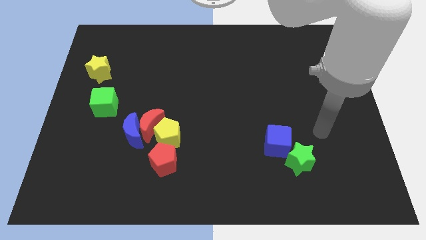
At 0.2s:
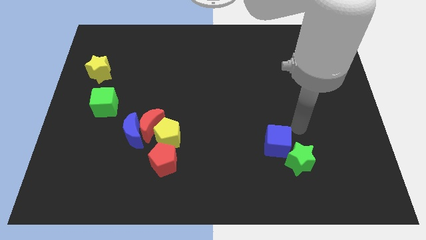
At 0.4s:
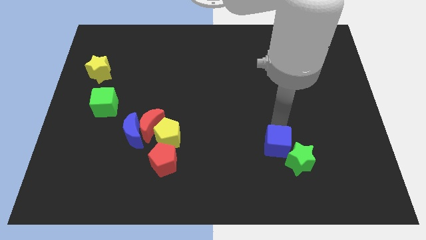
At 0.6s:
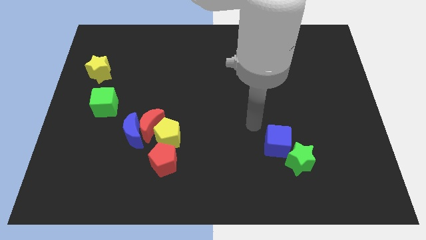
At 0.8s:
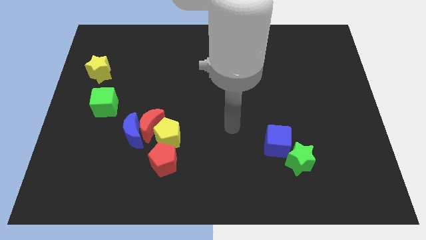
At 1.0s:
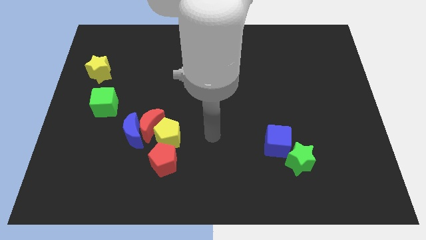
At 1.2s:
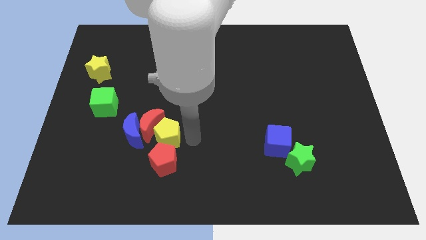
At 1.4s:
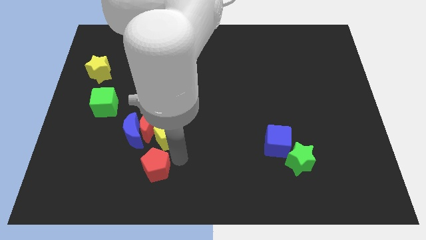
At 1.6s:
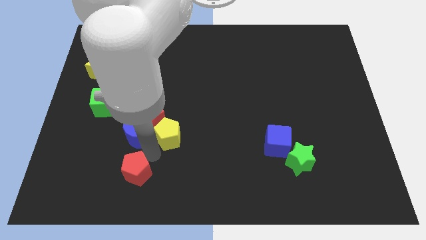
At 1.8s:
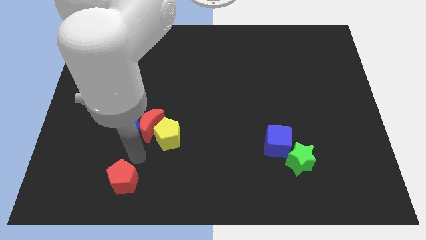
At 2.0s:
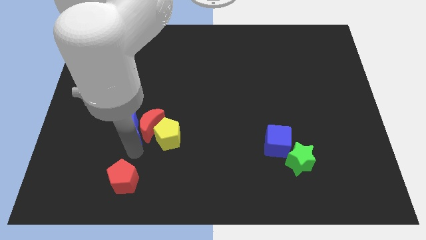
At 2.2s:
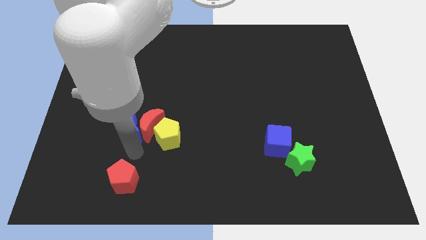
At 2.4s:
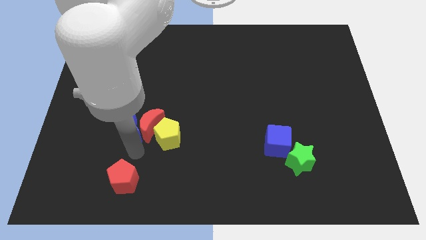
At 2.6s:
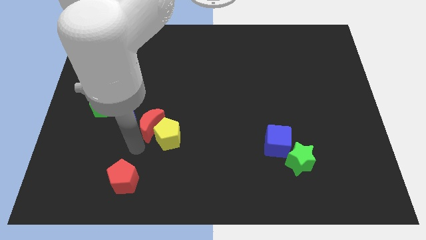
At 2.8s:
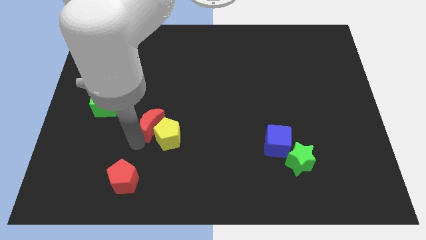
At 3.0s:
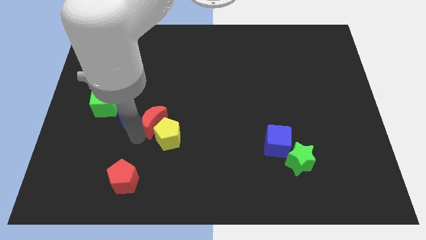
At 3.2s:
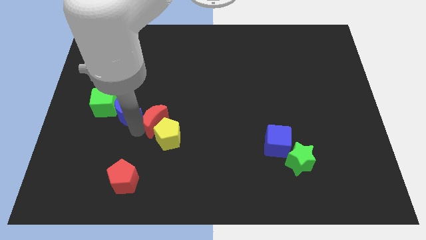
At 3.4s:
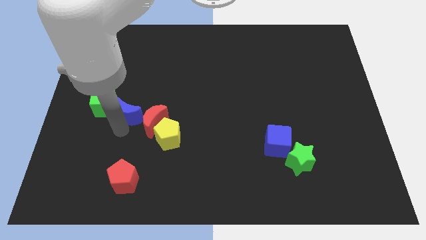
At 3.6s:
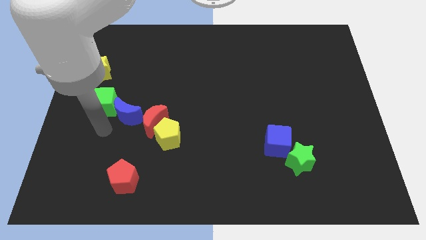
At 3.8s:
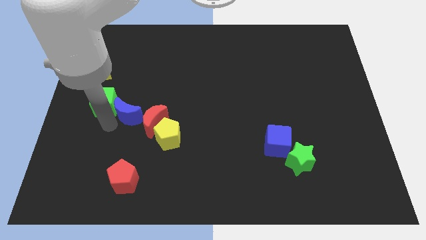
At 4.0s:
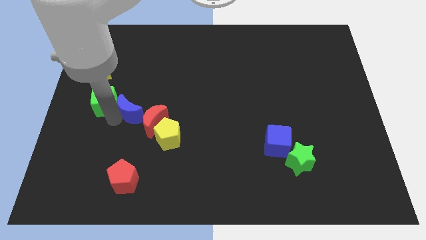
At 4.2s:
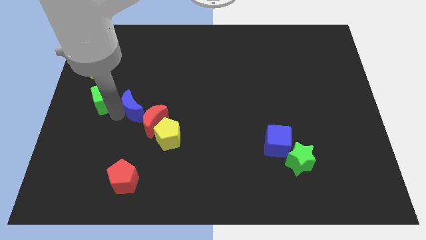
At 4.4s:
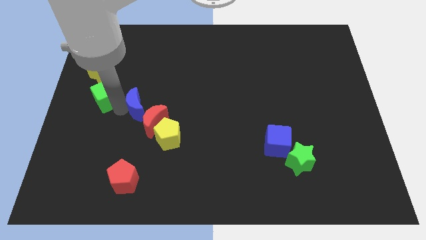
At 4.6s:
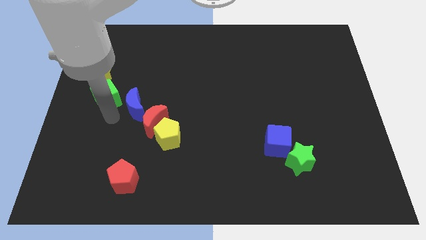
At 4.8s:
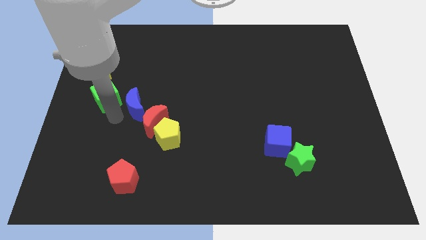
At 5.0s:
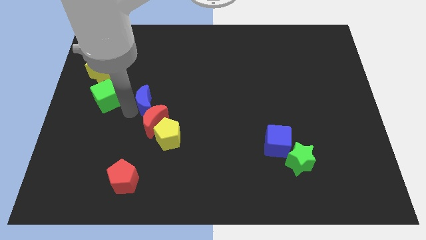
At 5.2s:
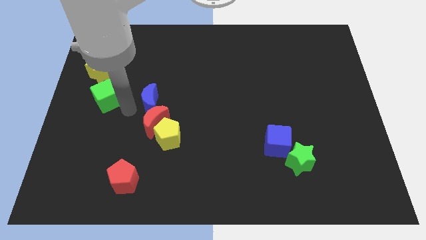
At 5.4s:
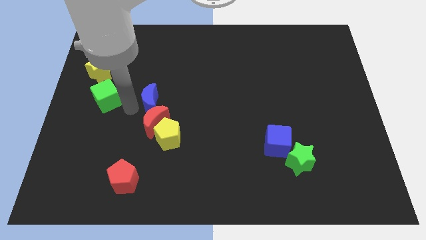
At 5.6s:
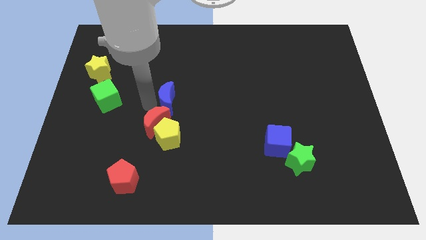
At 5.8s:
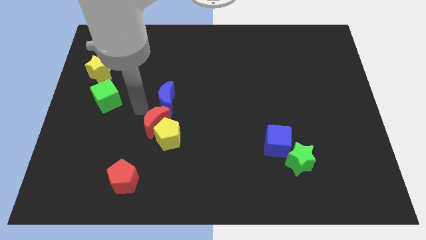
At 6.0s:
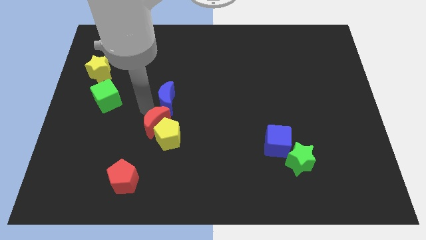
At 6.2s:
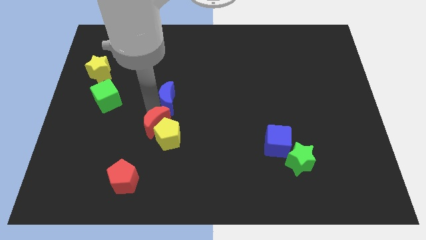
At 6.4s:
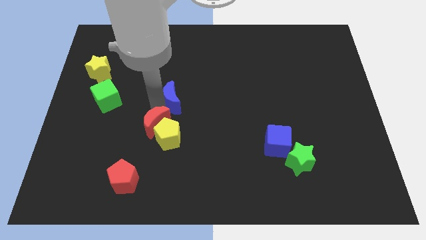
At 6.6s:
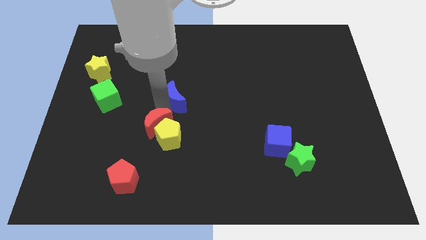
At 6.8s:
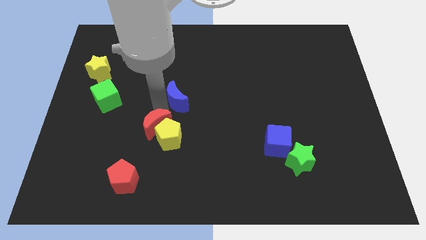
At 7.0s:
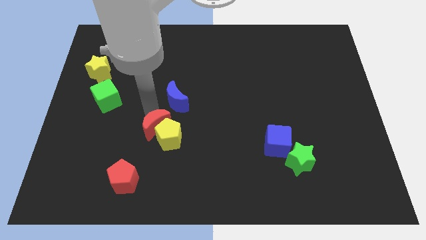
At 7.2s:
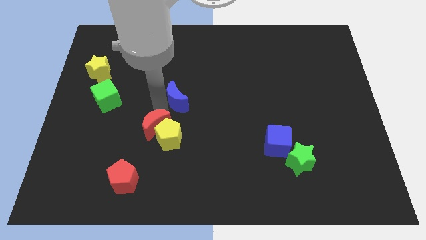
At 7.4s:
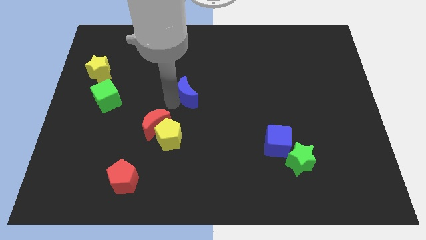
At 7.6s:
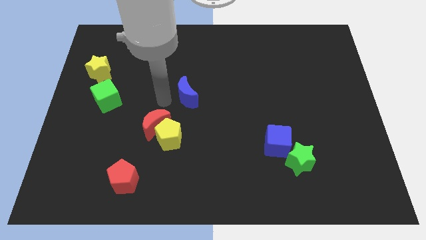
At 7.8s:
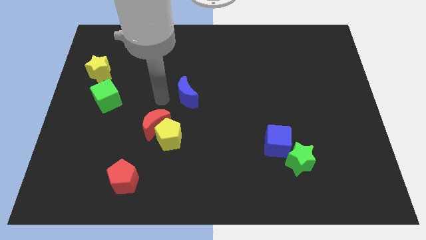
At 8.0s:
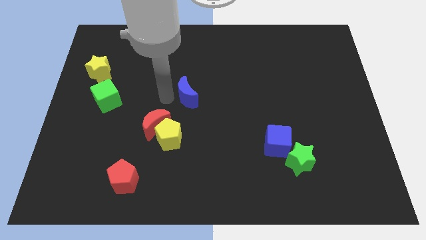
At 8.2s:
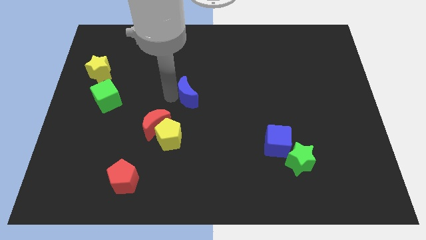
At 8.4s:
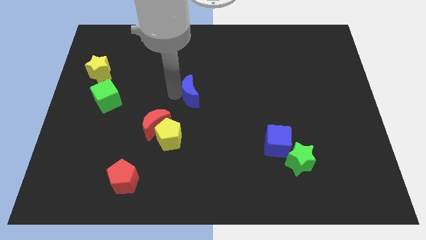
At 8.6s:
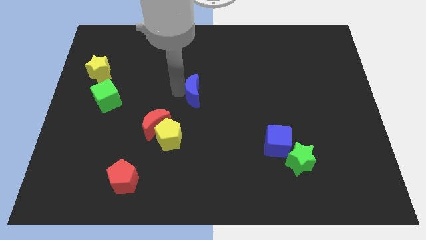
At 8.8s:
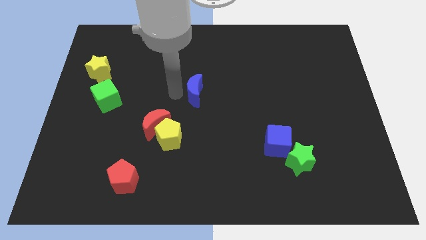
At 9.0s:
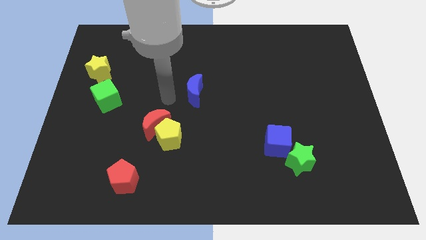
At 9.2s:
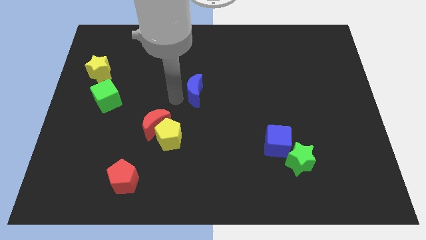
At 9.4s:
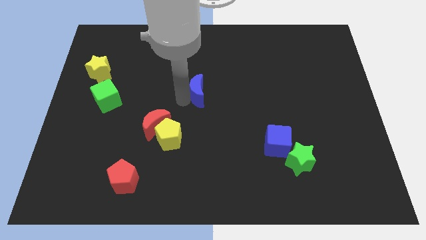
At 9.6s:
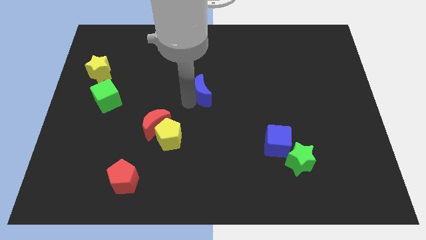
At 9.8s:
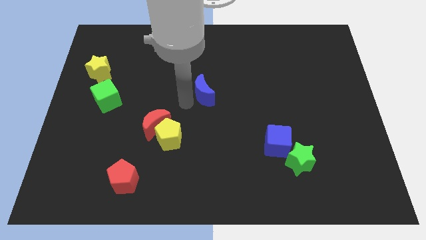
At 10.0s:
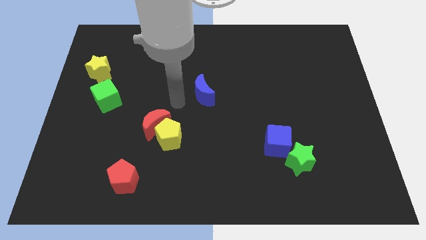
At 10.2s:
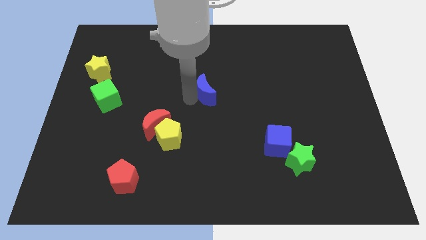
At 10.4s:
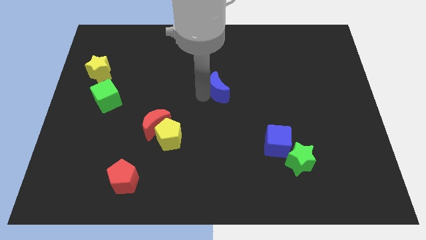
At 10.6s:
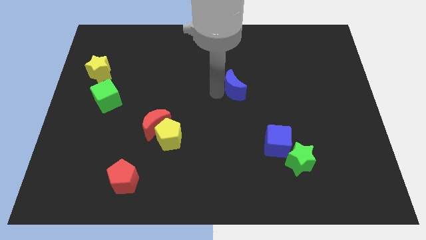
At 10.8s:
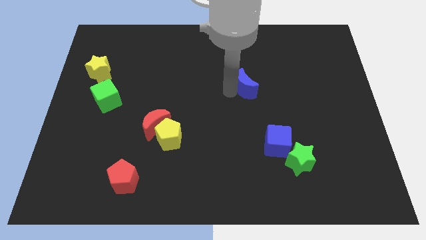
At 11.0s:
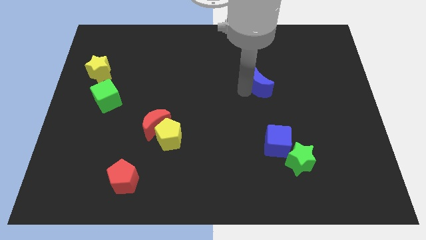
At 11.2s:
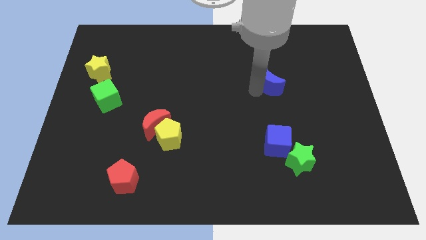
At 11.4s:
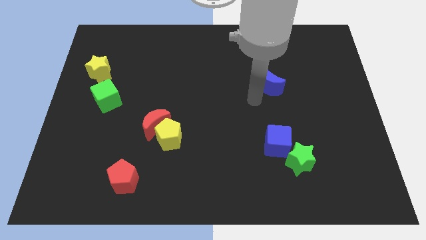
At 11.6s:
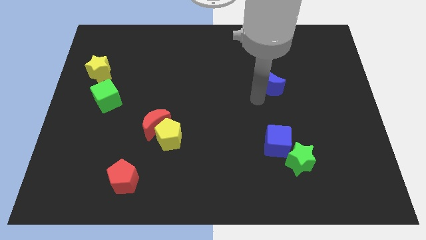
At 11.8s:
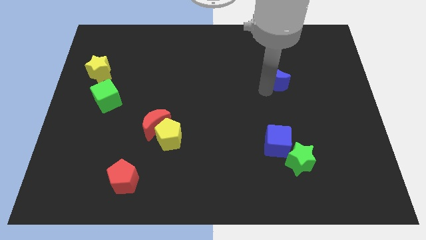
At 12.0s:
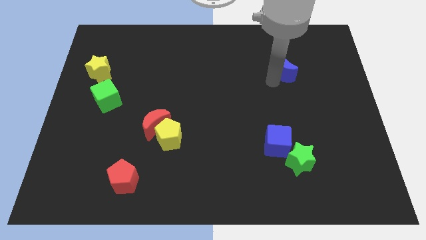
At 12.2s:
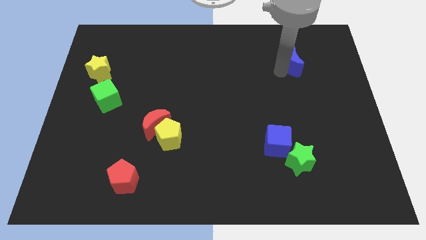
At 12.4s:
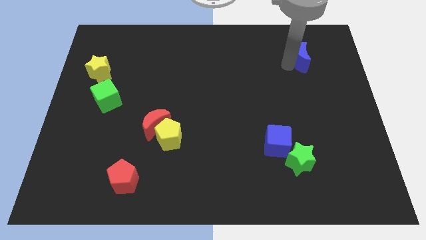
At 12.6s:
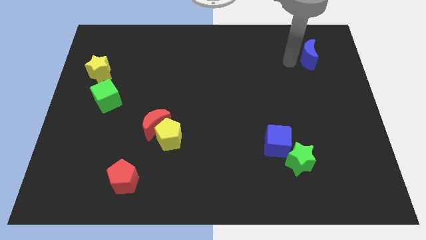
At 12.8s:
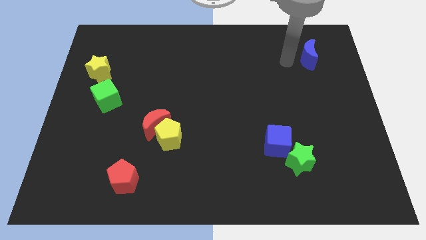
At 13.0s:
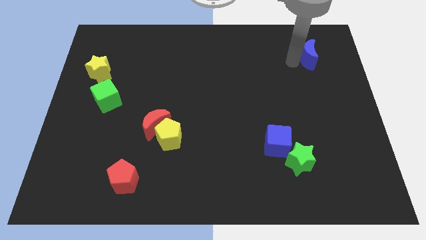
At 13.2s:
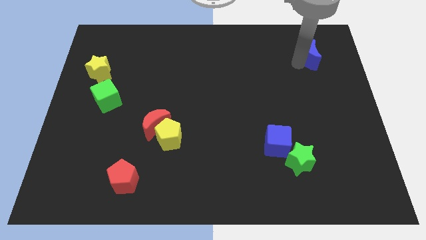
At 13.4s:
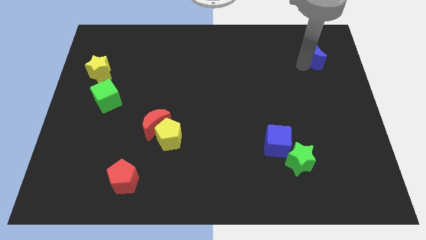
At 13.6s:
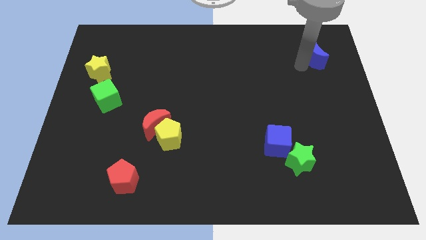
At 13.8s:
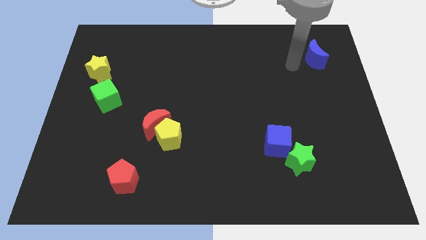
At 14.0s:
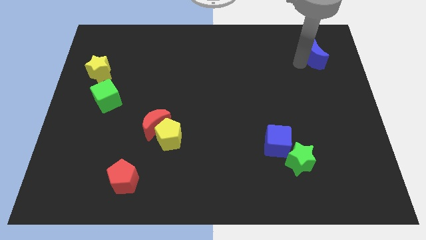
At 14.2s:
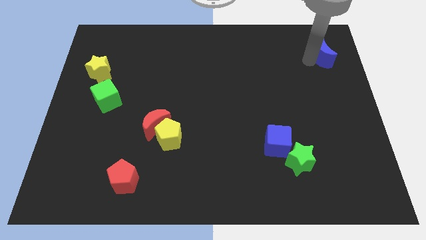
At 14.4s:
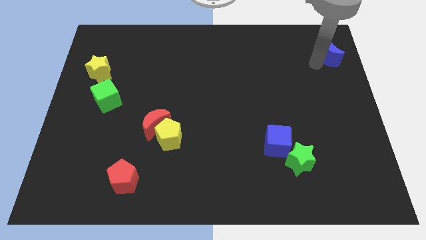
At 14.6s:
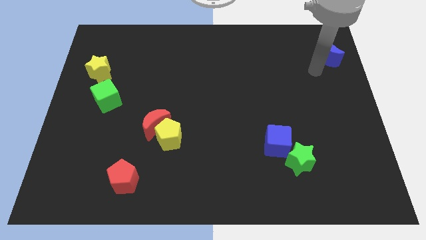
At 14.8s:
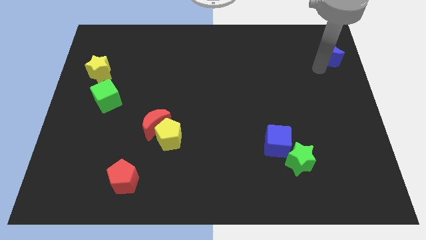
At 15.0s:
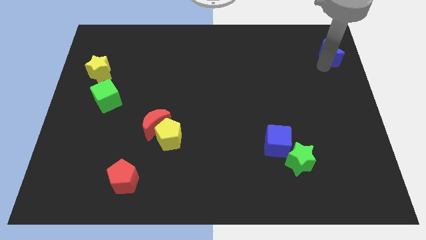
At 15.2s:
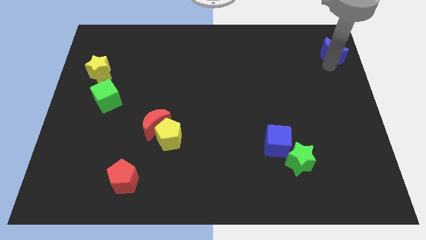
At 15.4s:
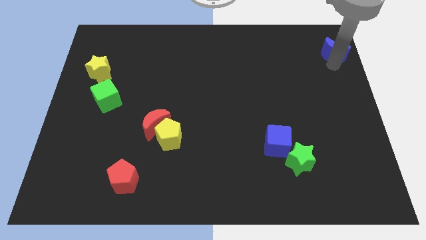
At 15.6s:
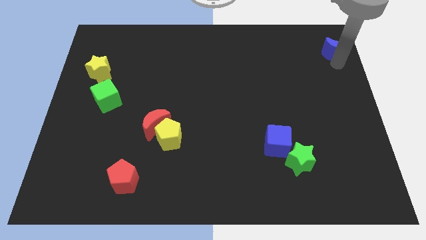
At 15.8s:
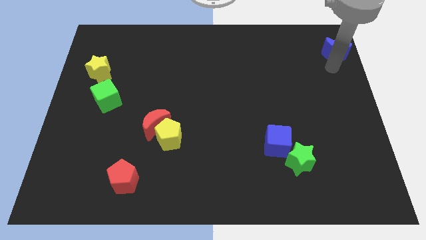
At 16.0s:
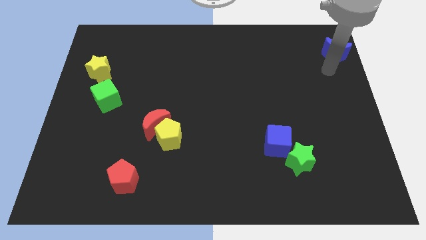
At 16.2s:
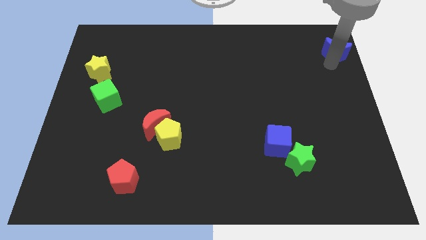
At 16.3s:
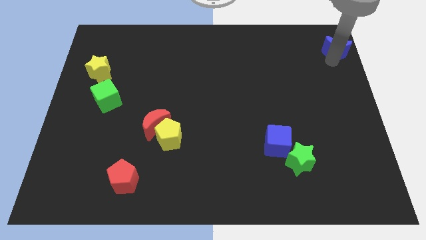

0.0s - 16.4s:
put the blue moon to the top right
